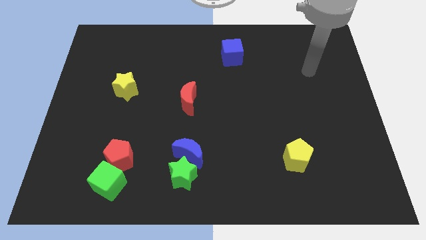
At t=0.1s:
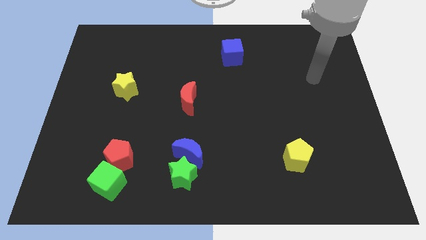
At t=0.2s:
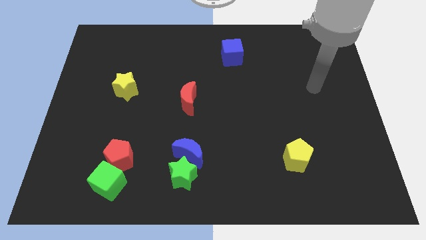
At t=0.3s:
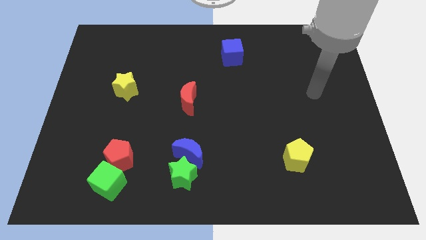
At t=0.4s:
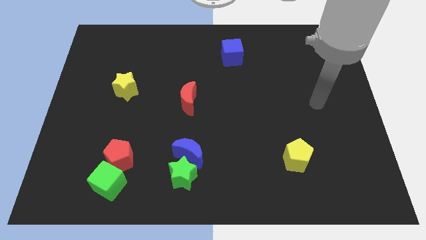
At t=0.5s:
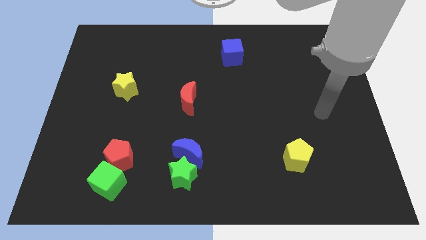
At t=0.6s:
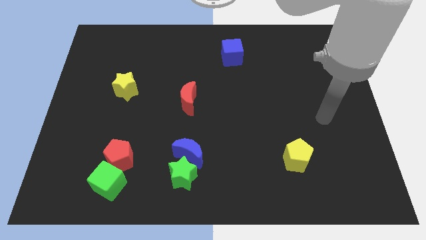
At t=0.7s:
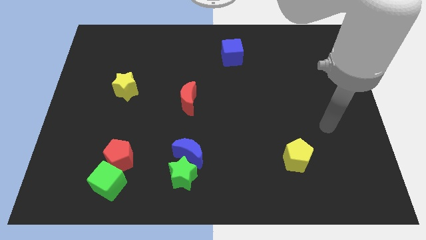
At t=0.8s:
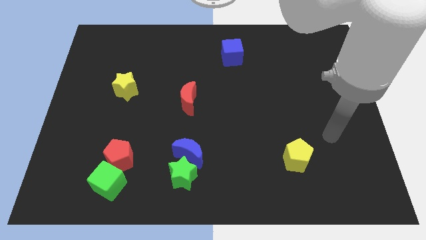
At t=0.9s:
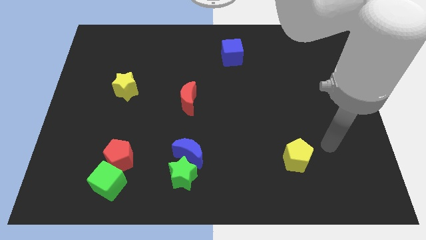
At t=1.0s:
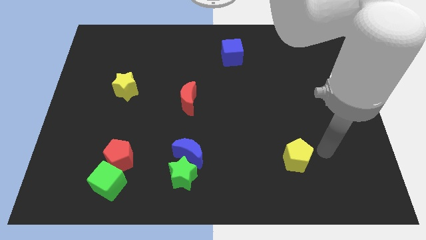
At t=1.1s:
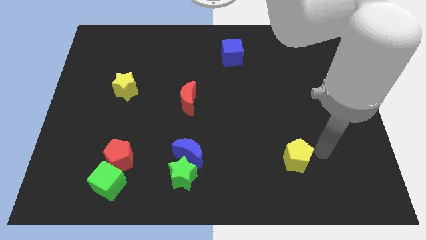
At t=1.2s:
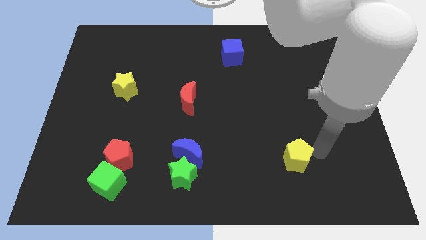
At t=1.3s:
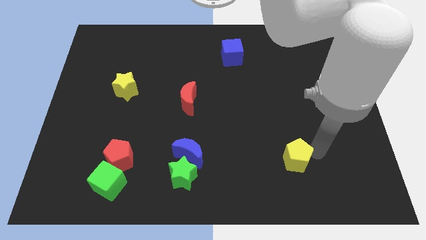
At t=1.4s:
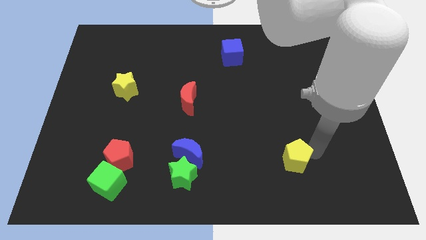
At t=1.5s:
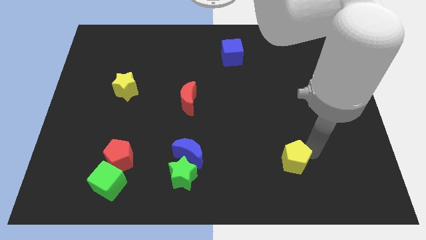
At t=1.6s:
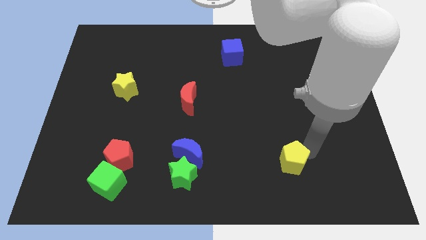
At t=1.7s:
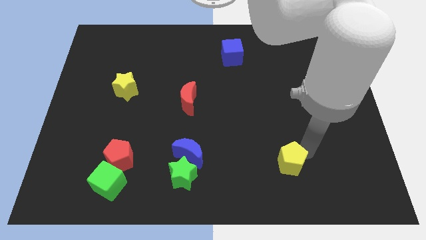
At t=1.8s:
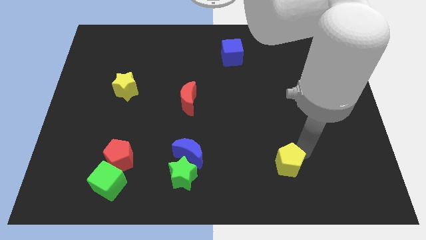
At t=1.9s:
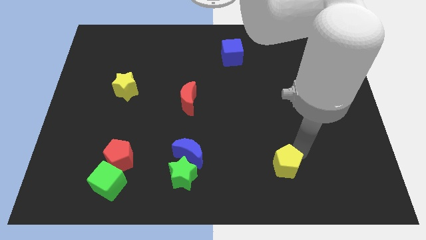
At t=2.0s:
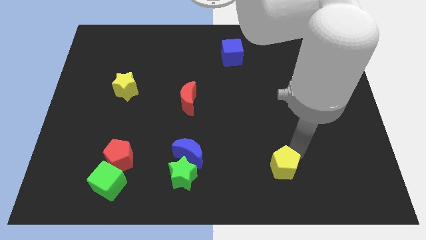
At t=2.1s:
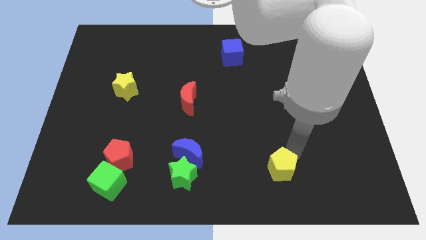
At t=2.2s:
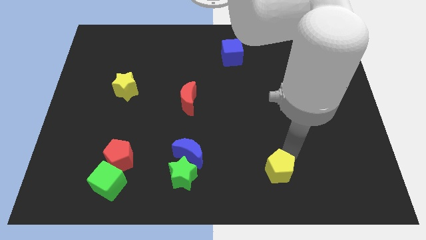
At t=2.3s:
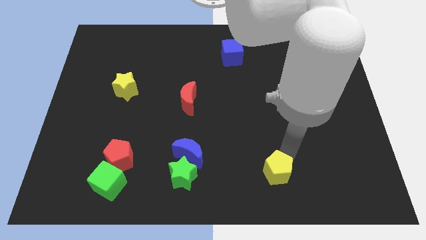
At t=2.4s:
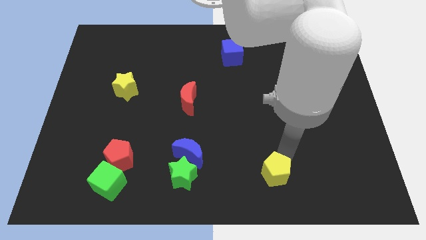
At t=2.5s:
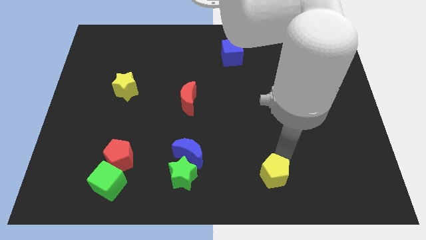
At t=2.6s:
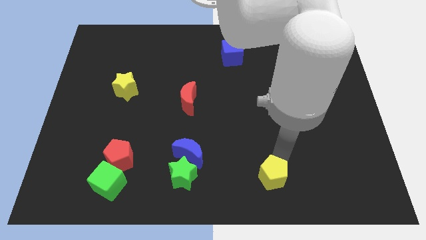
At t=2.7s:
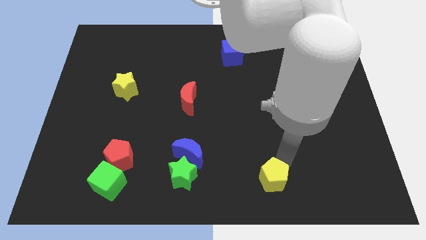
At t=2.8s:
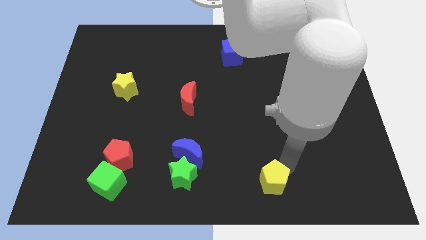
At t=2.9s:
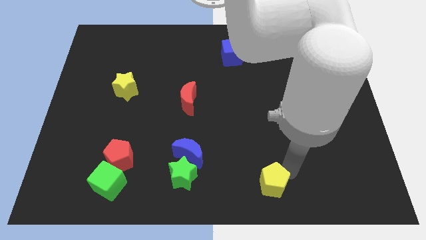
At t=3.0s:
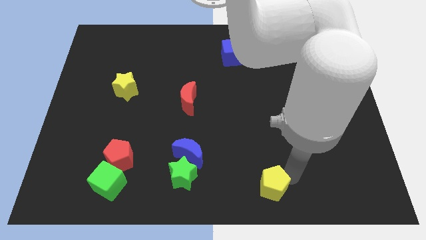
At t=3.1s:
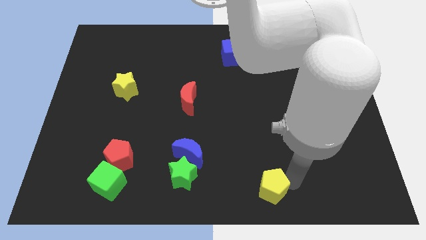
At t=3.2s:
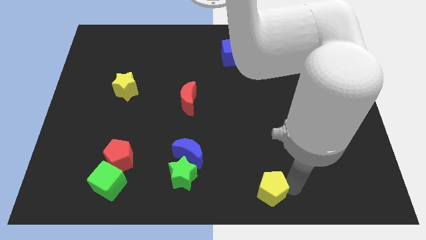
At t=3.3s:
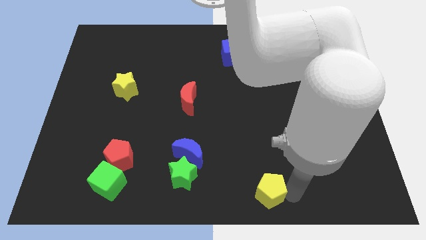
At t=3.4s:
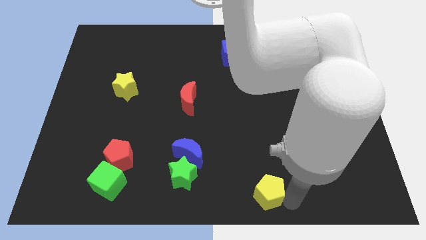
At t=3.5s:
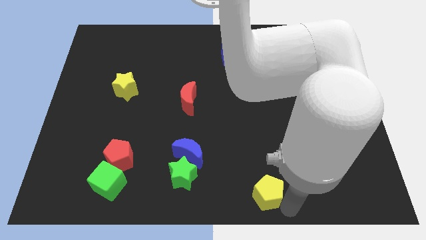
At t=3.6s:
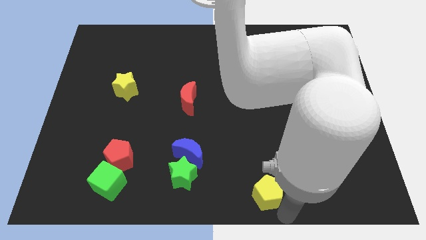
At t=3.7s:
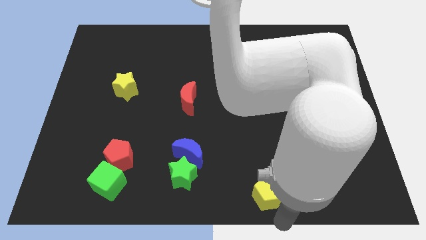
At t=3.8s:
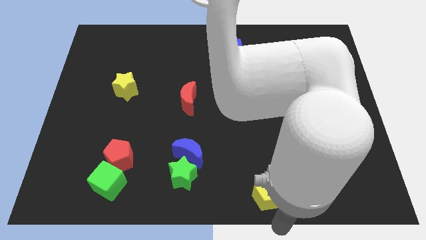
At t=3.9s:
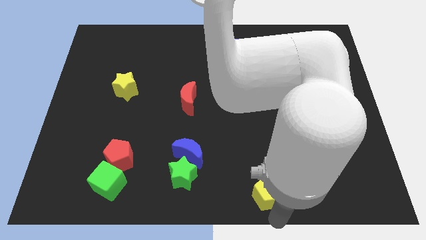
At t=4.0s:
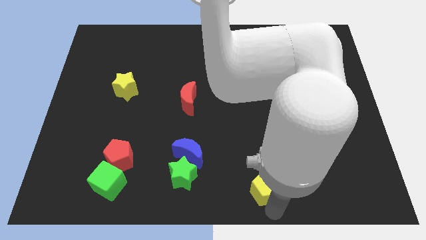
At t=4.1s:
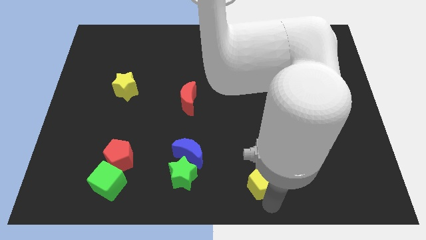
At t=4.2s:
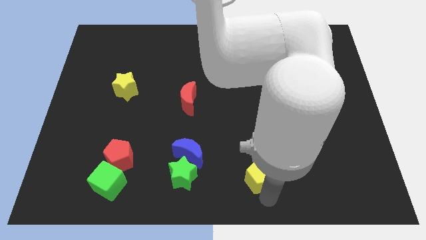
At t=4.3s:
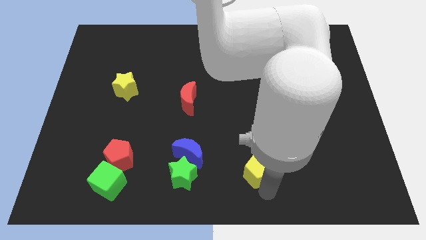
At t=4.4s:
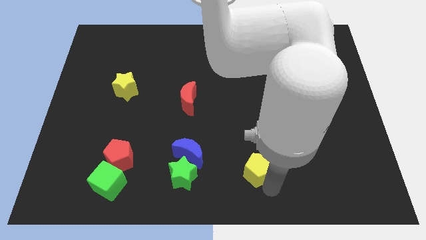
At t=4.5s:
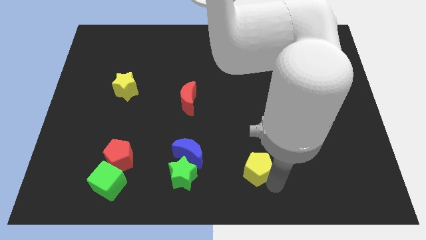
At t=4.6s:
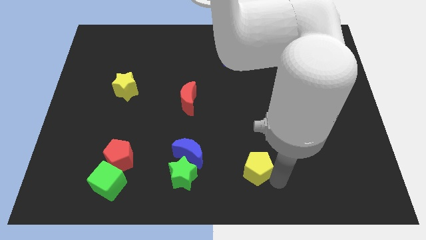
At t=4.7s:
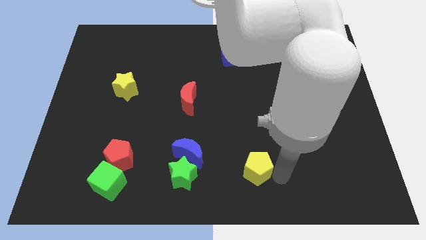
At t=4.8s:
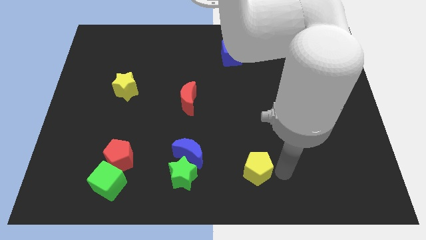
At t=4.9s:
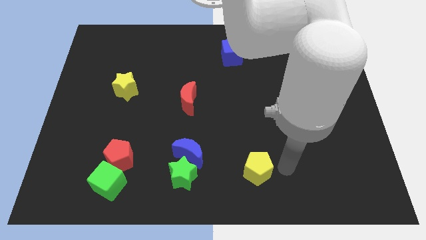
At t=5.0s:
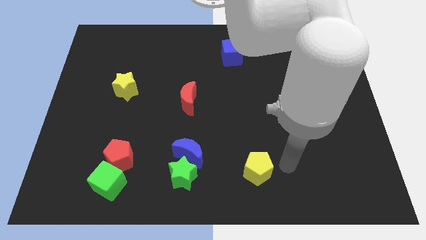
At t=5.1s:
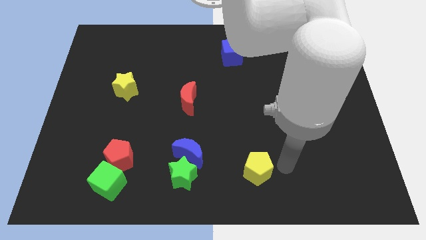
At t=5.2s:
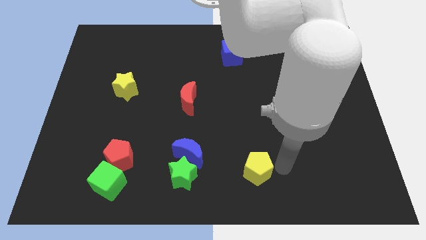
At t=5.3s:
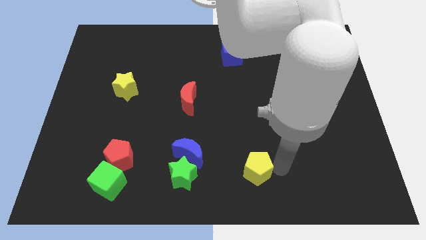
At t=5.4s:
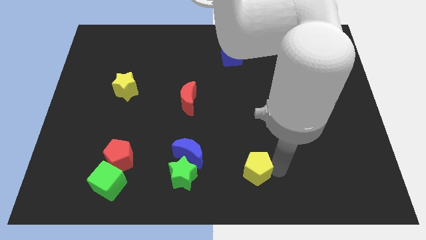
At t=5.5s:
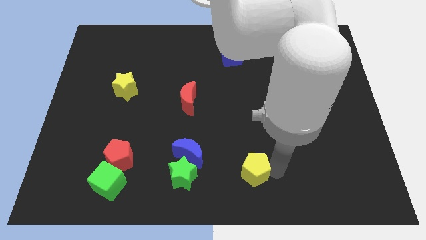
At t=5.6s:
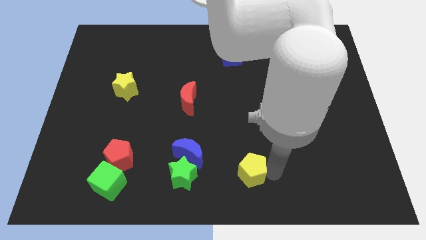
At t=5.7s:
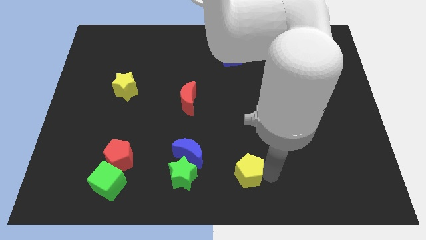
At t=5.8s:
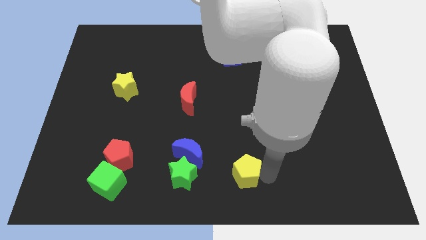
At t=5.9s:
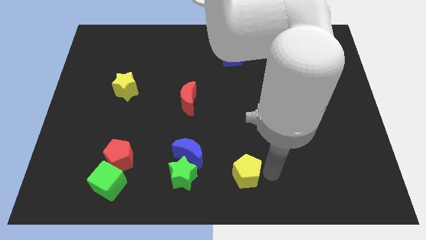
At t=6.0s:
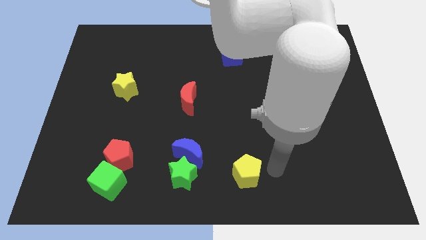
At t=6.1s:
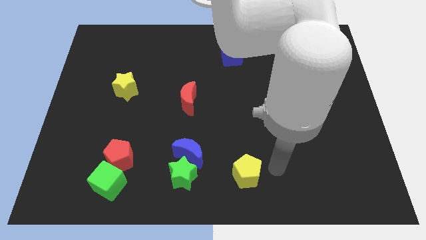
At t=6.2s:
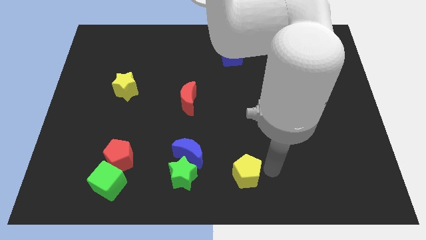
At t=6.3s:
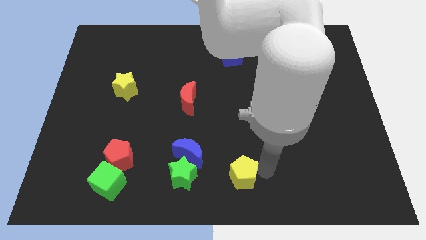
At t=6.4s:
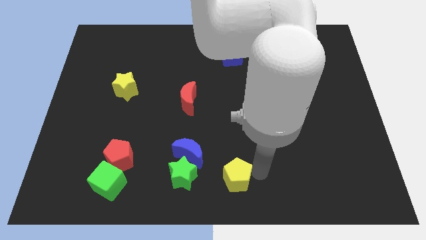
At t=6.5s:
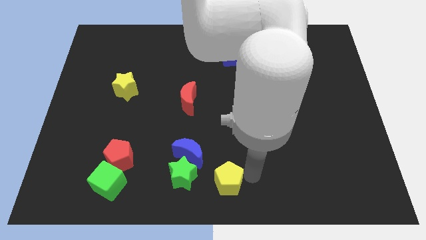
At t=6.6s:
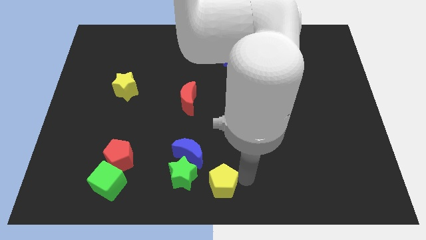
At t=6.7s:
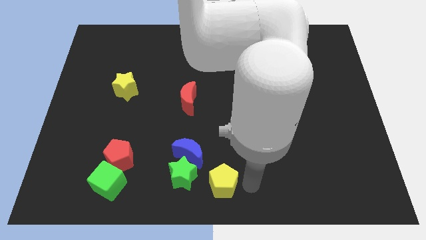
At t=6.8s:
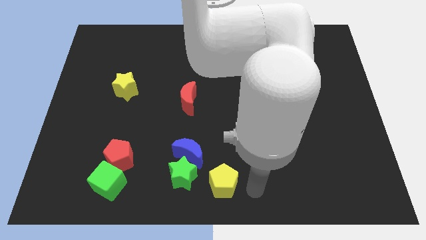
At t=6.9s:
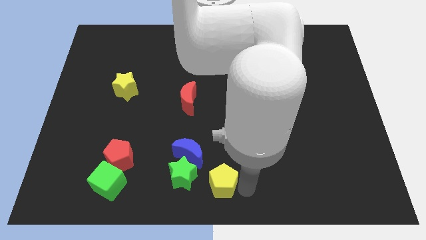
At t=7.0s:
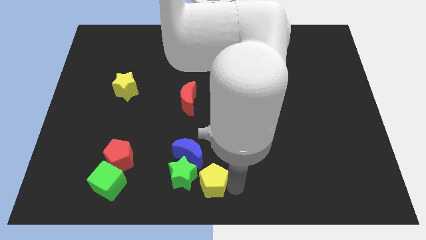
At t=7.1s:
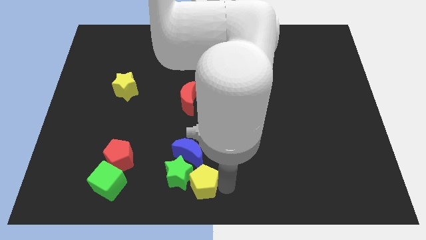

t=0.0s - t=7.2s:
push the yellow pentagon next to the green star

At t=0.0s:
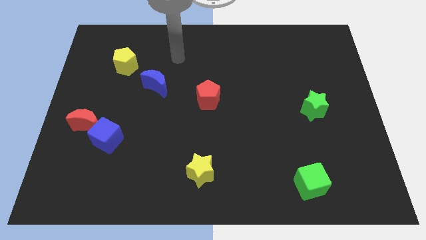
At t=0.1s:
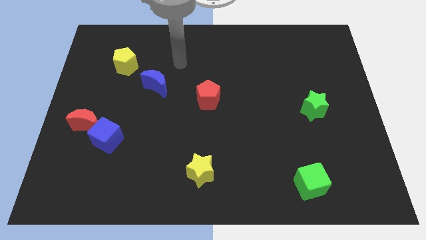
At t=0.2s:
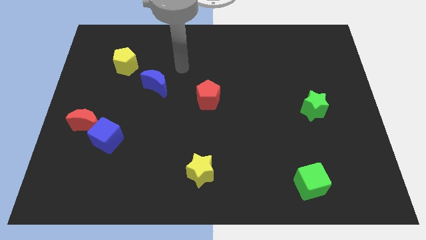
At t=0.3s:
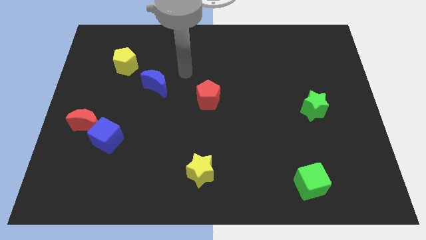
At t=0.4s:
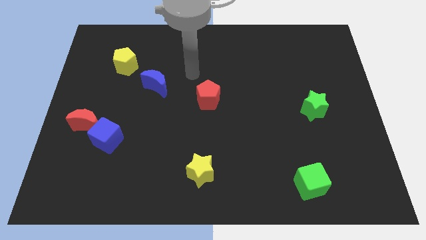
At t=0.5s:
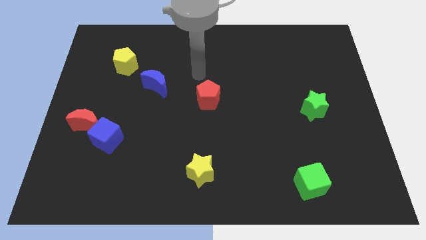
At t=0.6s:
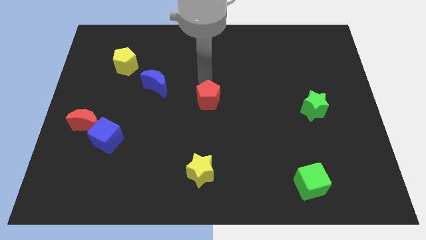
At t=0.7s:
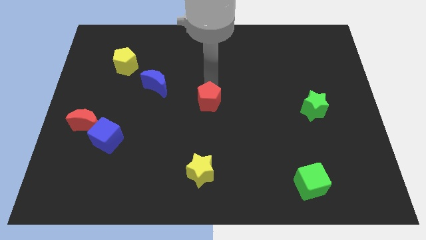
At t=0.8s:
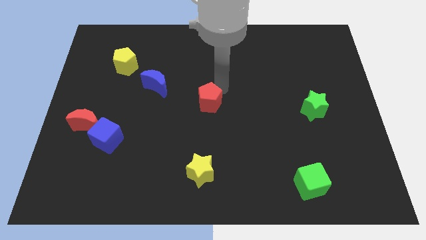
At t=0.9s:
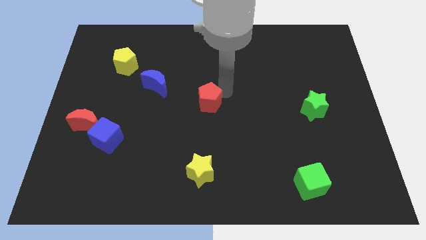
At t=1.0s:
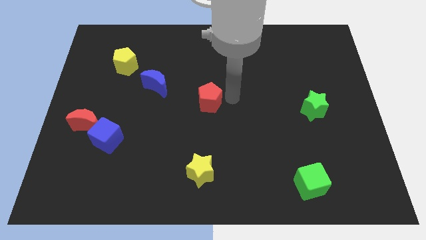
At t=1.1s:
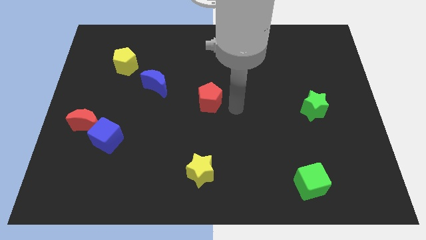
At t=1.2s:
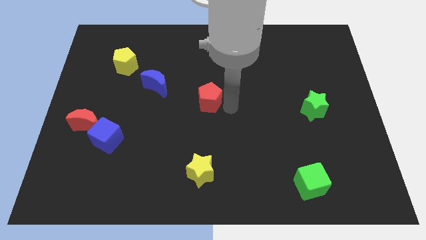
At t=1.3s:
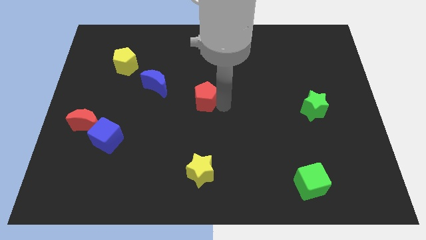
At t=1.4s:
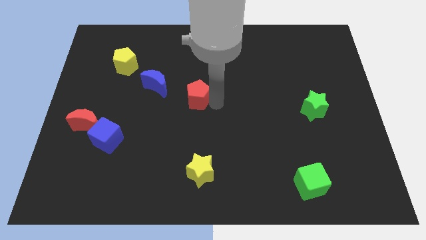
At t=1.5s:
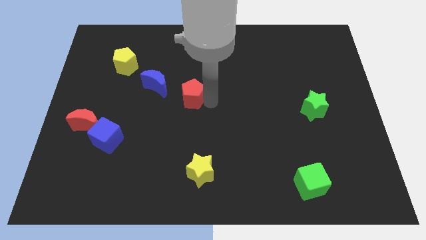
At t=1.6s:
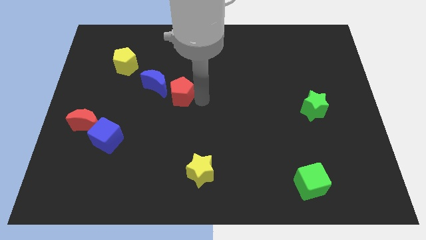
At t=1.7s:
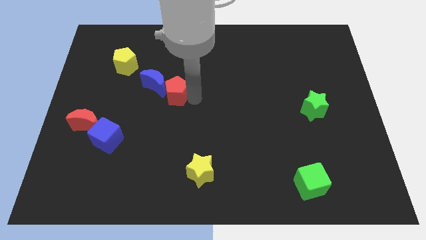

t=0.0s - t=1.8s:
move the red pentagon to the blue moon
